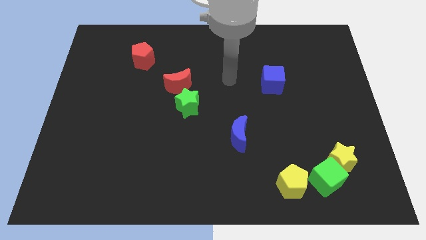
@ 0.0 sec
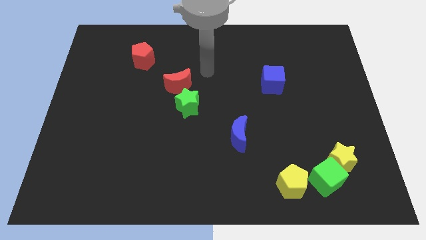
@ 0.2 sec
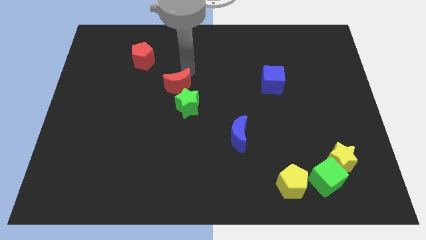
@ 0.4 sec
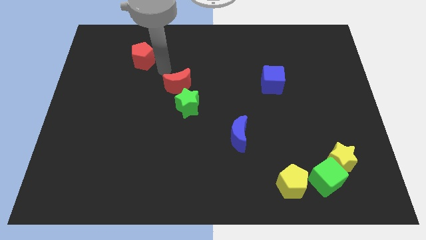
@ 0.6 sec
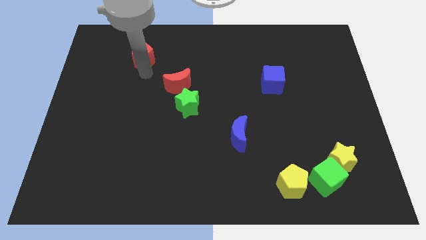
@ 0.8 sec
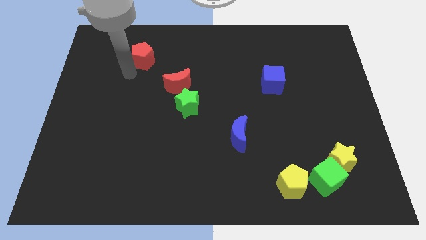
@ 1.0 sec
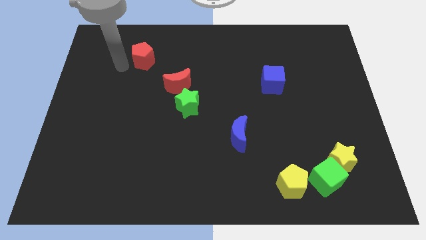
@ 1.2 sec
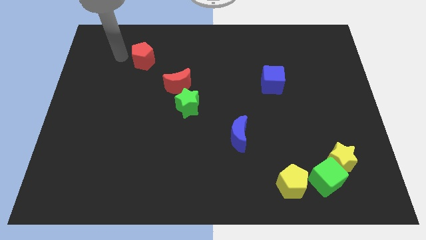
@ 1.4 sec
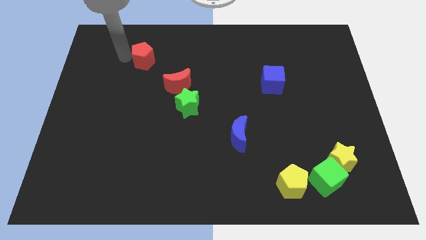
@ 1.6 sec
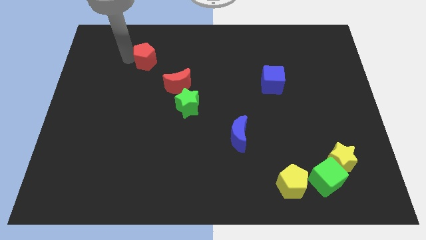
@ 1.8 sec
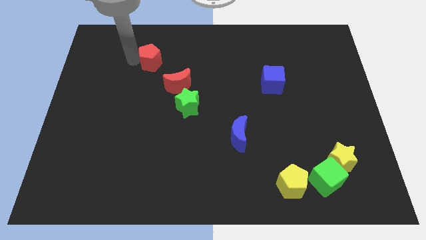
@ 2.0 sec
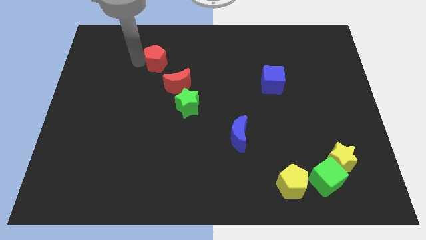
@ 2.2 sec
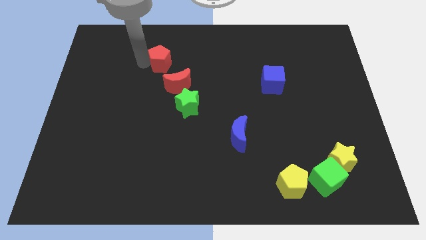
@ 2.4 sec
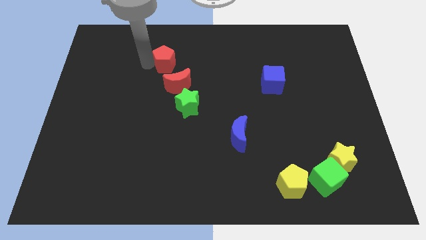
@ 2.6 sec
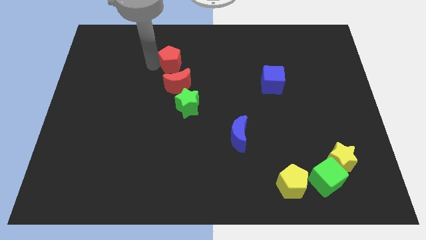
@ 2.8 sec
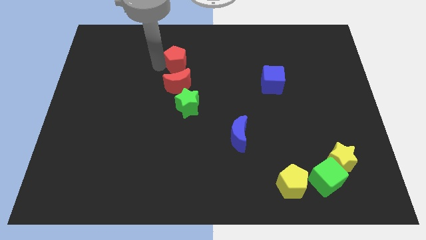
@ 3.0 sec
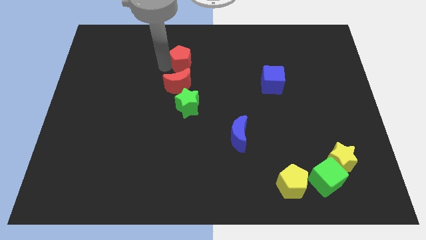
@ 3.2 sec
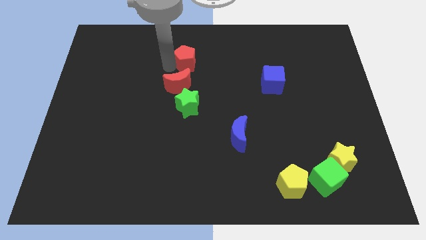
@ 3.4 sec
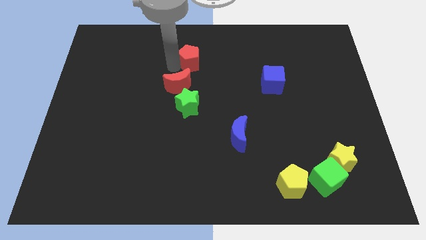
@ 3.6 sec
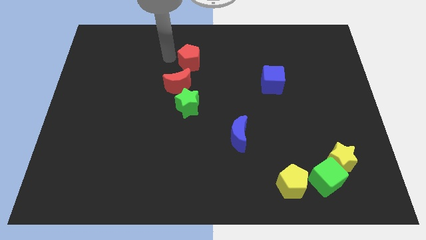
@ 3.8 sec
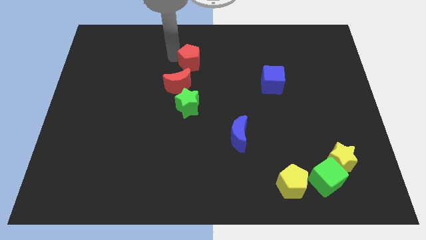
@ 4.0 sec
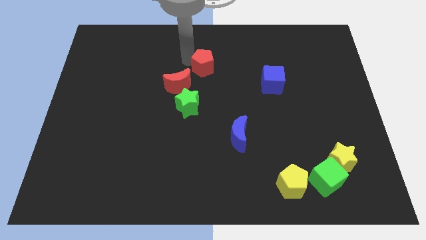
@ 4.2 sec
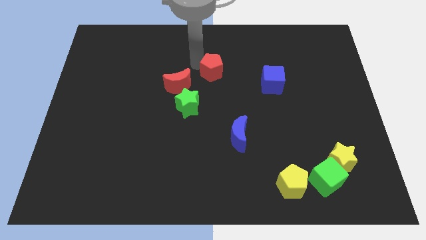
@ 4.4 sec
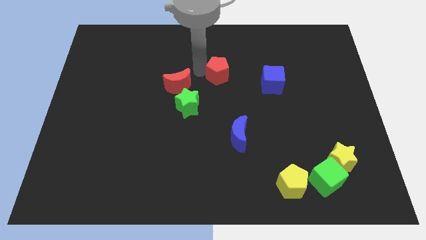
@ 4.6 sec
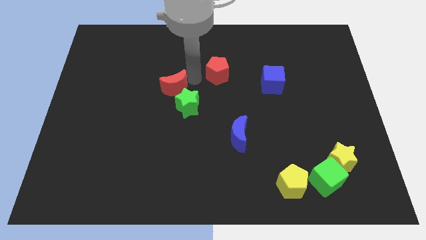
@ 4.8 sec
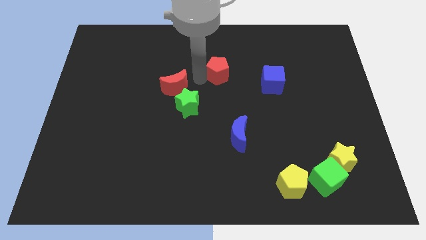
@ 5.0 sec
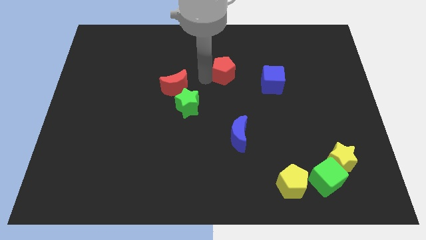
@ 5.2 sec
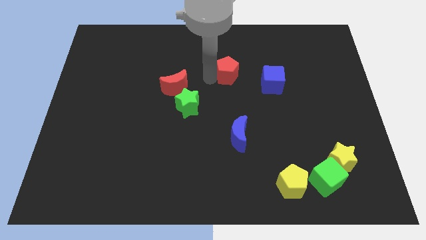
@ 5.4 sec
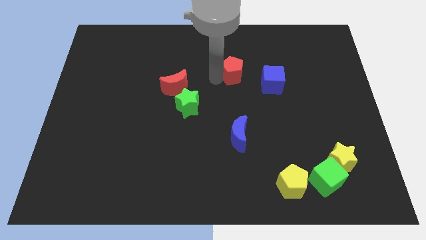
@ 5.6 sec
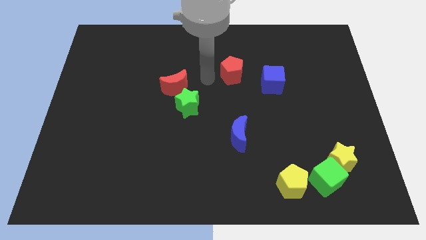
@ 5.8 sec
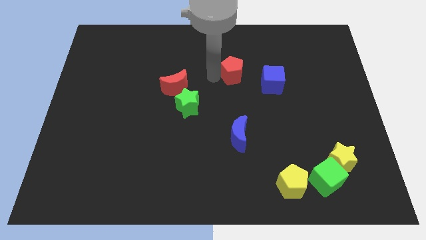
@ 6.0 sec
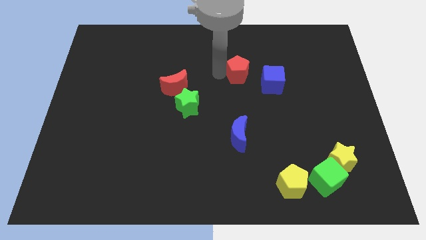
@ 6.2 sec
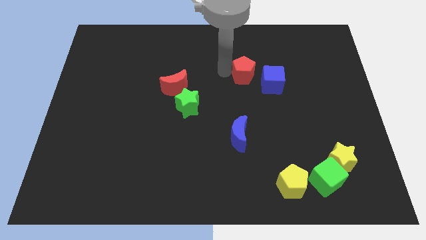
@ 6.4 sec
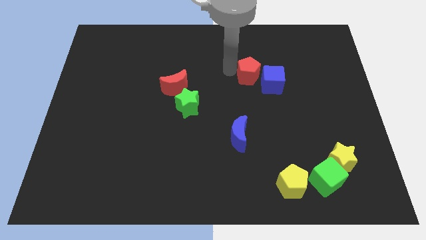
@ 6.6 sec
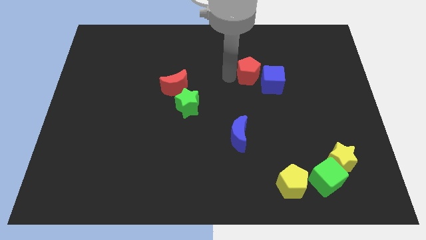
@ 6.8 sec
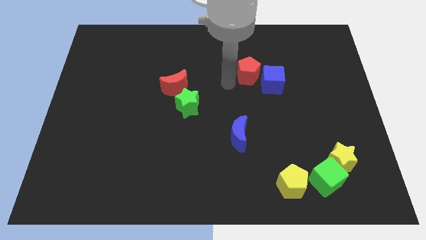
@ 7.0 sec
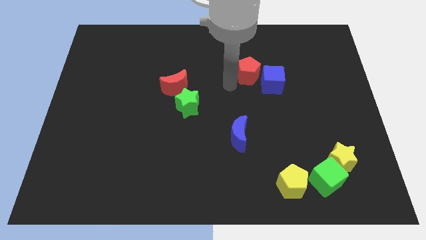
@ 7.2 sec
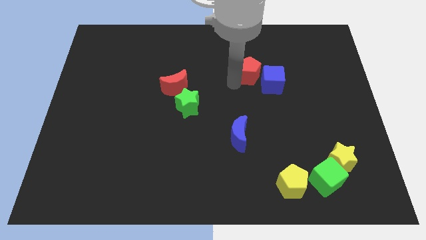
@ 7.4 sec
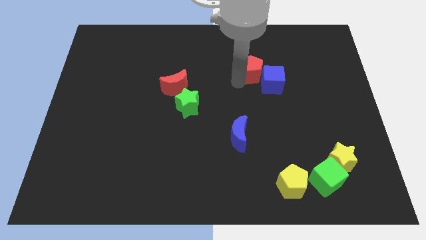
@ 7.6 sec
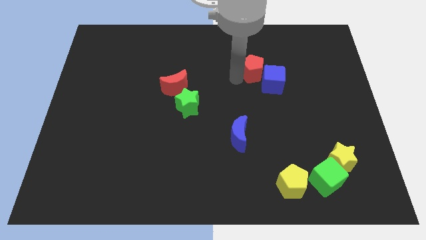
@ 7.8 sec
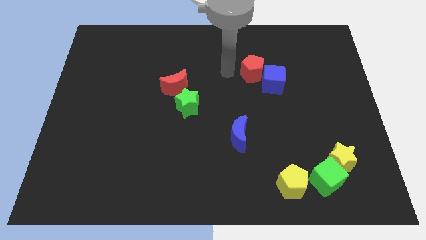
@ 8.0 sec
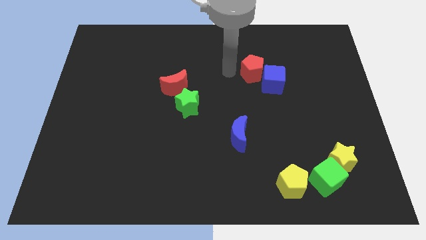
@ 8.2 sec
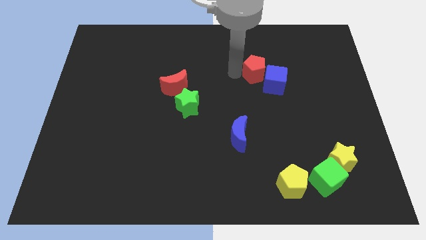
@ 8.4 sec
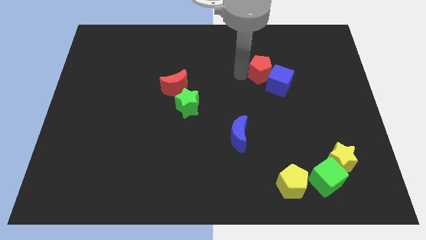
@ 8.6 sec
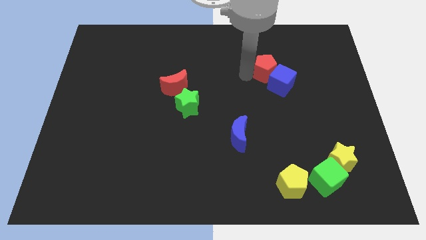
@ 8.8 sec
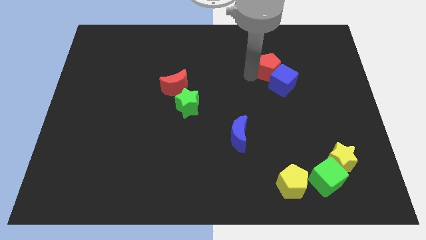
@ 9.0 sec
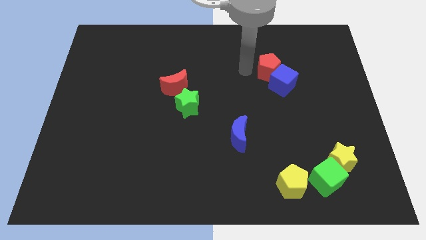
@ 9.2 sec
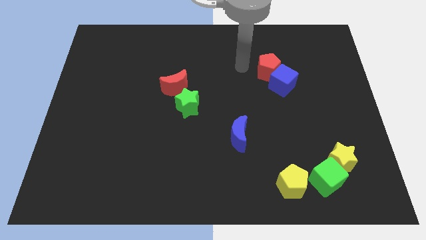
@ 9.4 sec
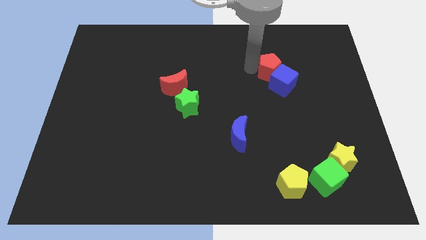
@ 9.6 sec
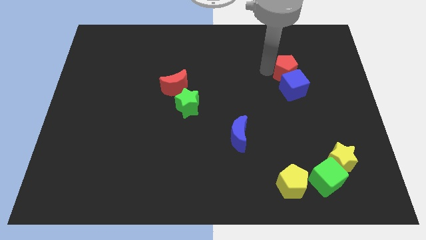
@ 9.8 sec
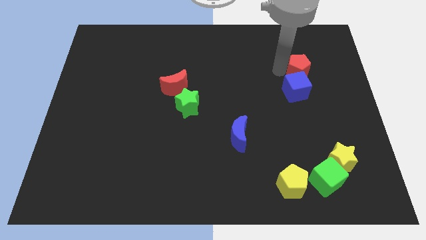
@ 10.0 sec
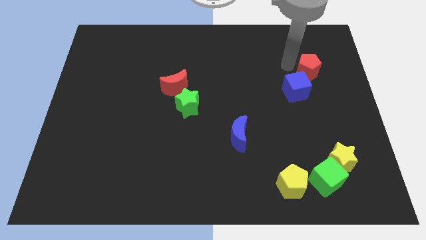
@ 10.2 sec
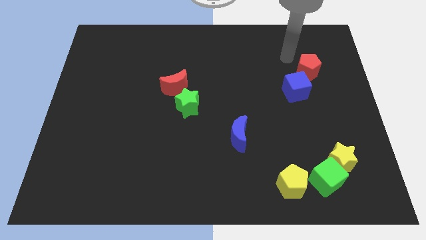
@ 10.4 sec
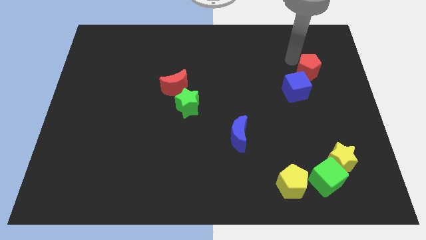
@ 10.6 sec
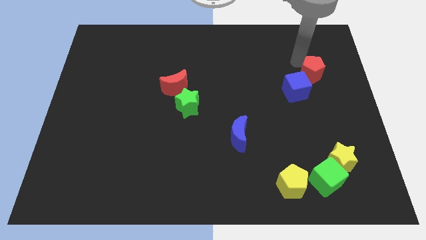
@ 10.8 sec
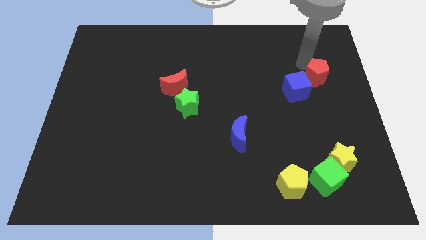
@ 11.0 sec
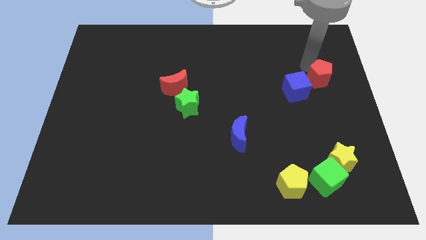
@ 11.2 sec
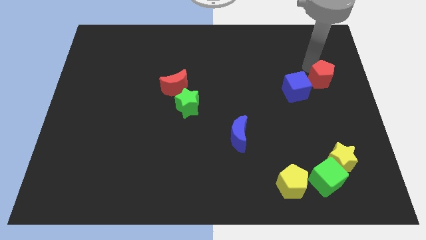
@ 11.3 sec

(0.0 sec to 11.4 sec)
push the red pentagon to the right side
